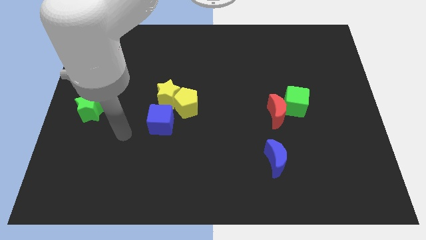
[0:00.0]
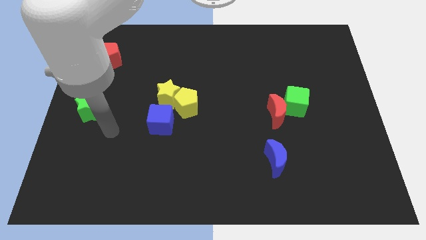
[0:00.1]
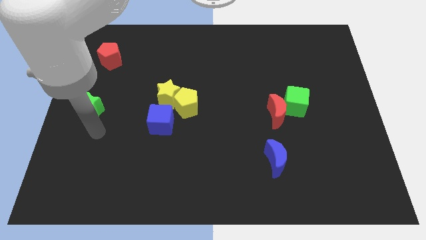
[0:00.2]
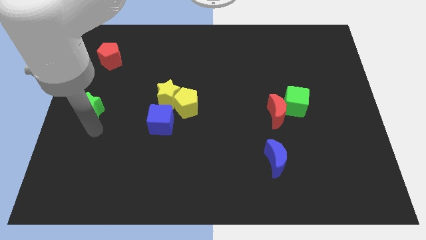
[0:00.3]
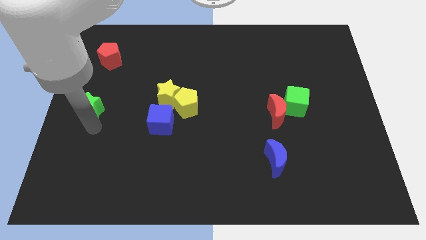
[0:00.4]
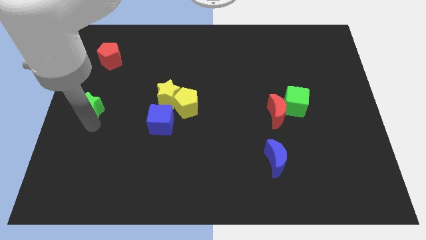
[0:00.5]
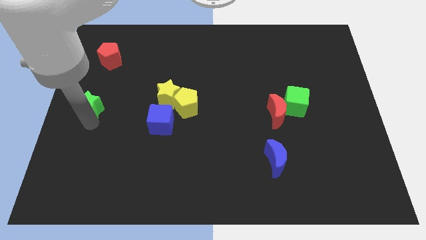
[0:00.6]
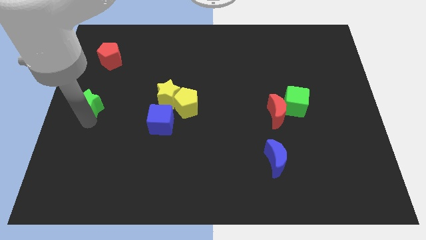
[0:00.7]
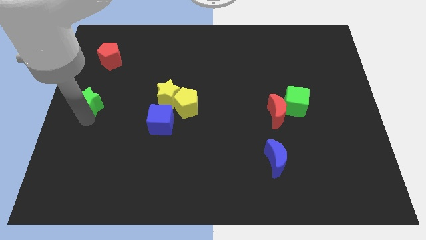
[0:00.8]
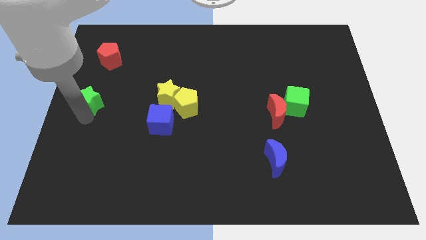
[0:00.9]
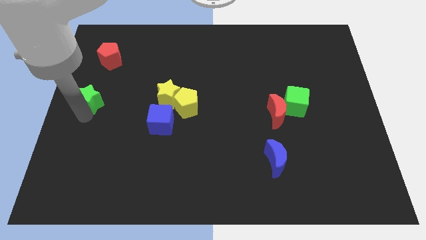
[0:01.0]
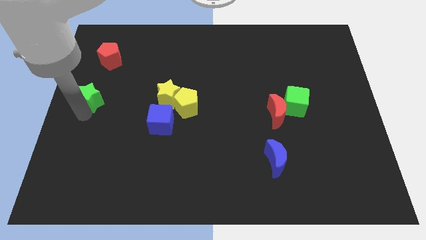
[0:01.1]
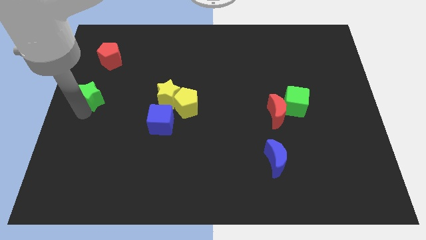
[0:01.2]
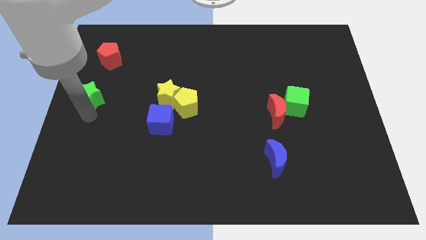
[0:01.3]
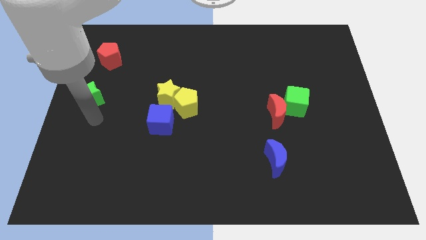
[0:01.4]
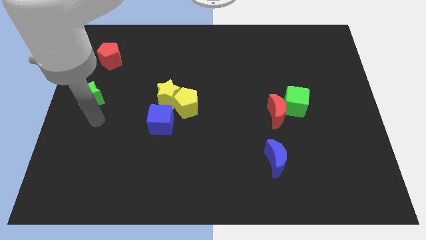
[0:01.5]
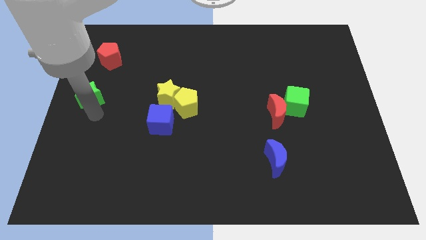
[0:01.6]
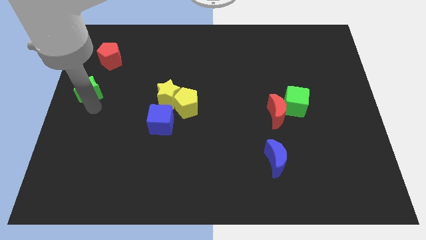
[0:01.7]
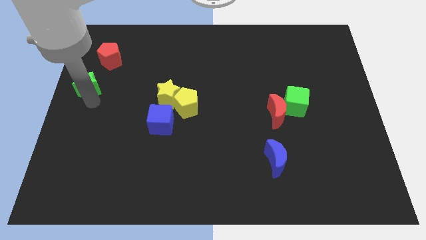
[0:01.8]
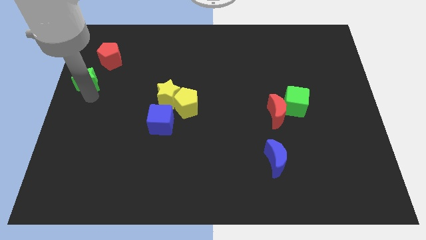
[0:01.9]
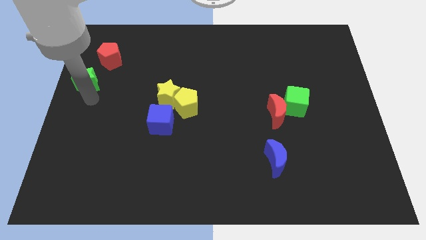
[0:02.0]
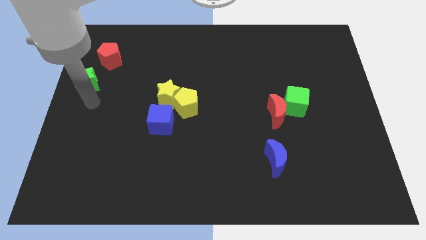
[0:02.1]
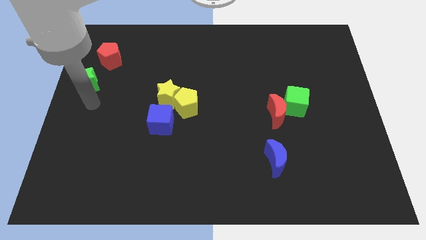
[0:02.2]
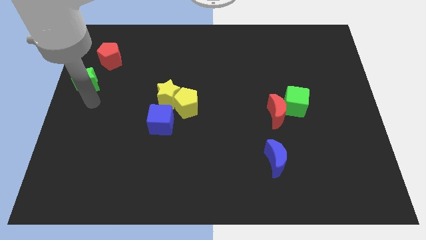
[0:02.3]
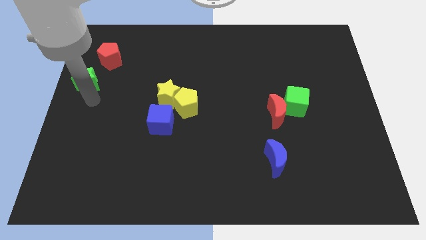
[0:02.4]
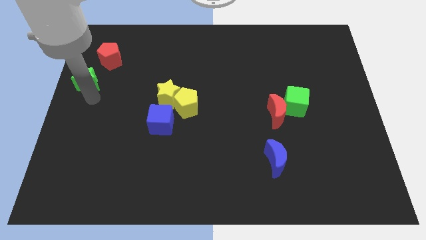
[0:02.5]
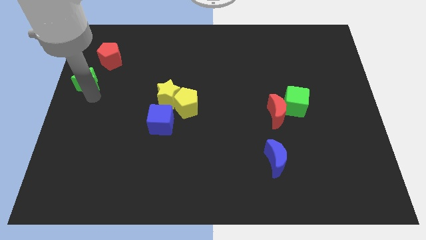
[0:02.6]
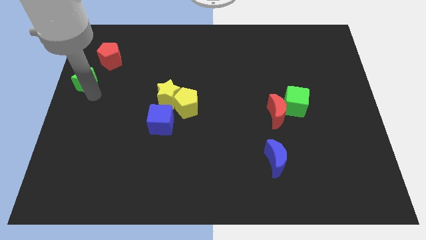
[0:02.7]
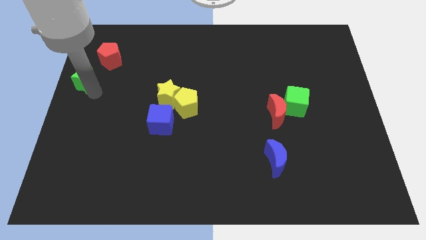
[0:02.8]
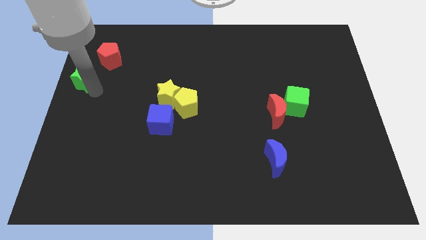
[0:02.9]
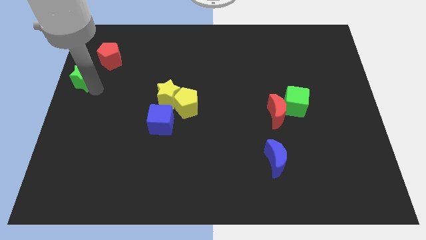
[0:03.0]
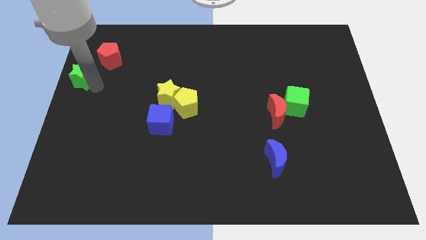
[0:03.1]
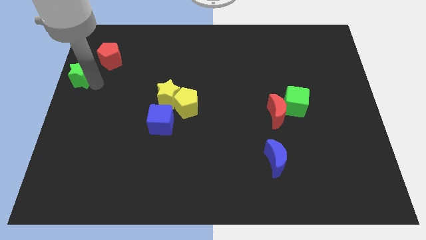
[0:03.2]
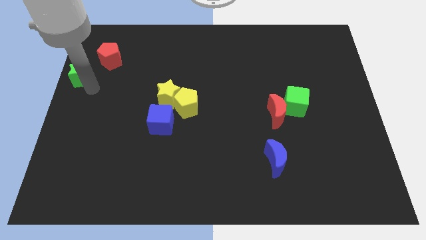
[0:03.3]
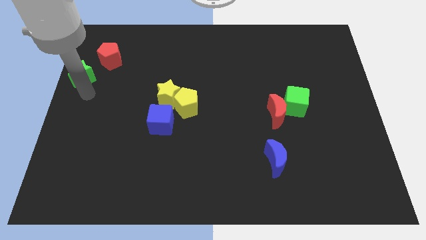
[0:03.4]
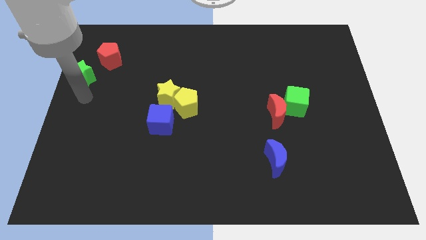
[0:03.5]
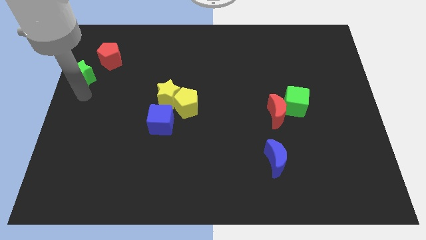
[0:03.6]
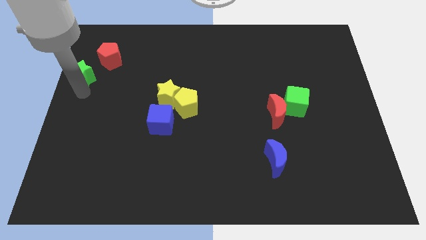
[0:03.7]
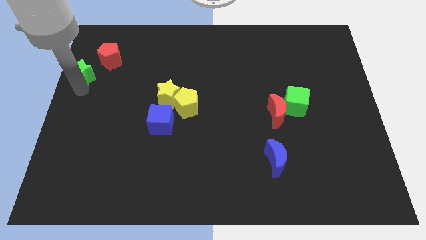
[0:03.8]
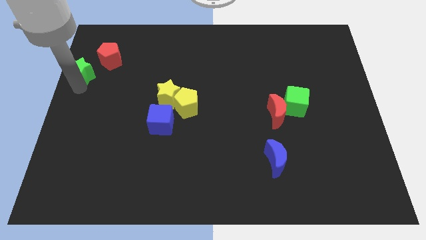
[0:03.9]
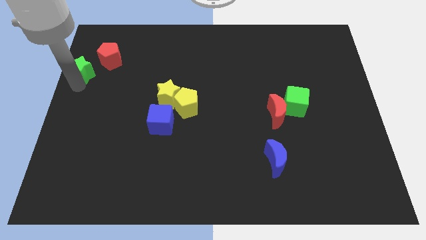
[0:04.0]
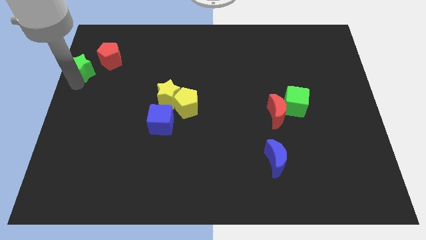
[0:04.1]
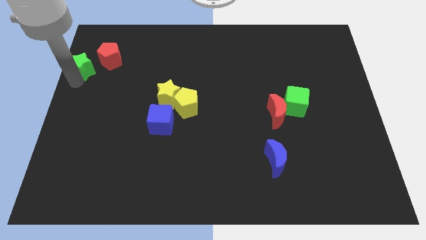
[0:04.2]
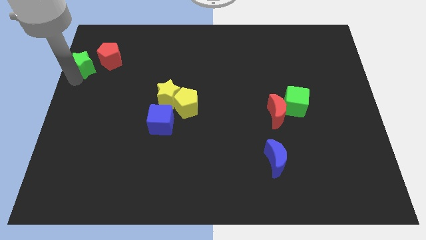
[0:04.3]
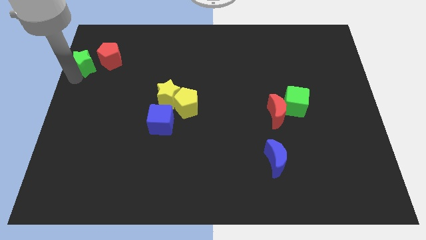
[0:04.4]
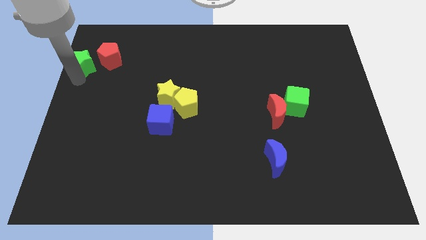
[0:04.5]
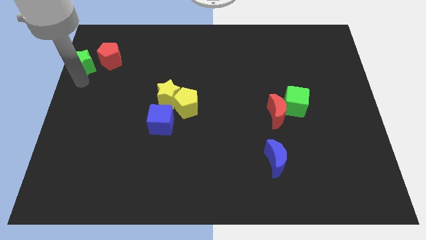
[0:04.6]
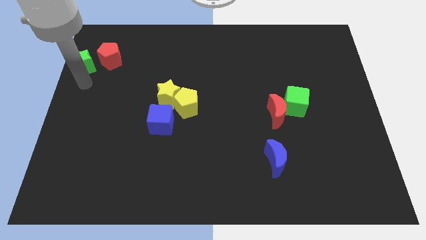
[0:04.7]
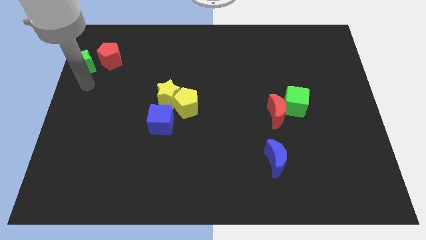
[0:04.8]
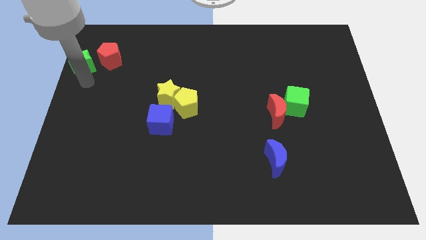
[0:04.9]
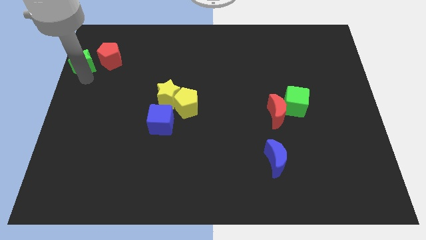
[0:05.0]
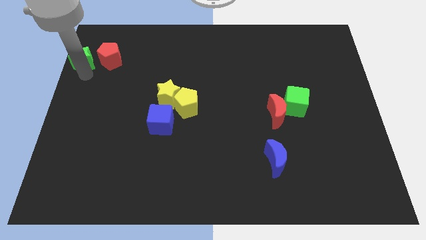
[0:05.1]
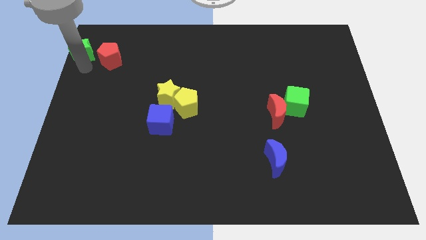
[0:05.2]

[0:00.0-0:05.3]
slide the green star to the top left corner
